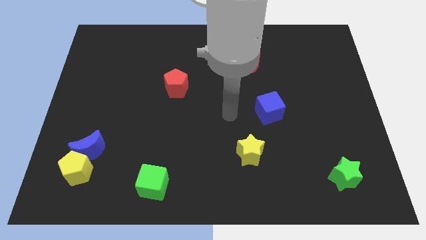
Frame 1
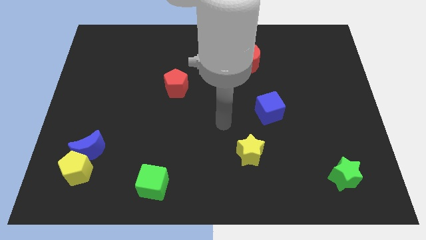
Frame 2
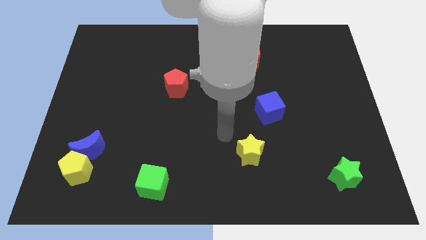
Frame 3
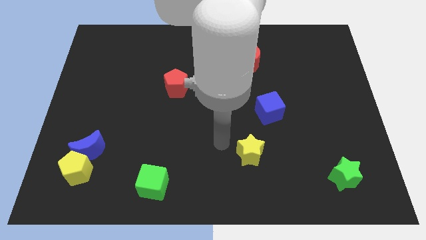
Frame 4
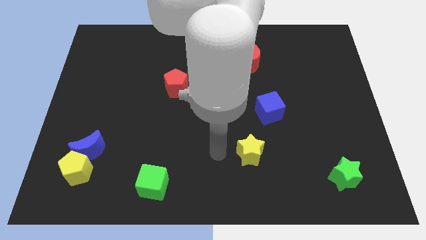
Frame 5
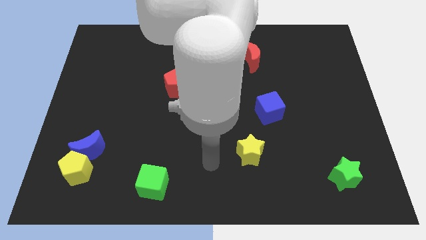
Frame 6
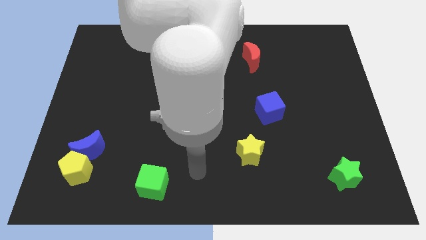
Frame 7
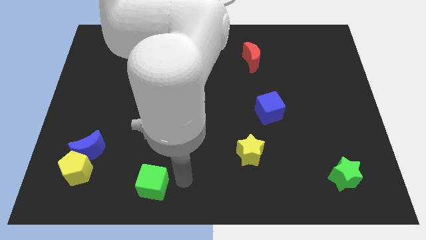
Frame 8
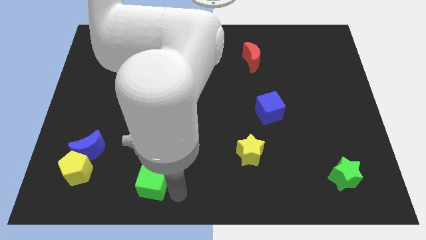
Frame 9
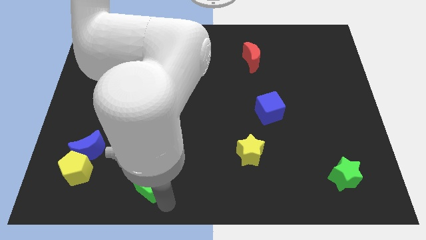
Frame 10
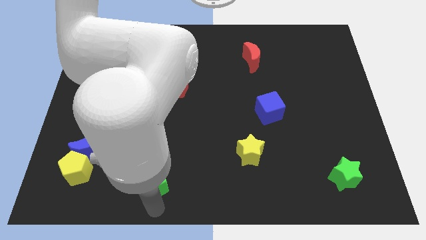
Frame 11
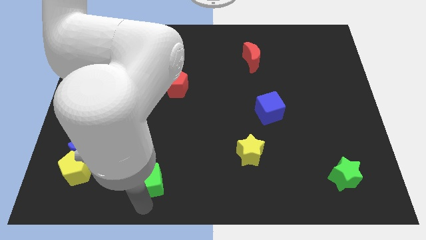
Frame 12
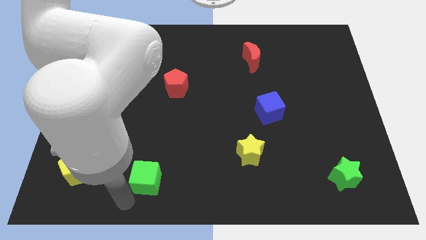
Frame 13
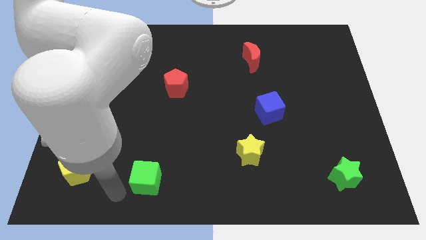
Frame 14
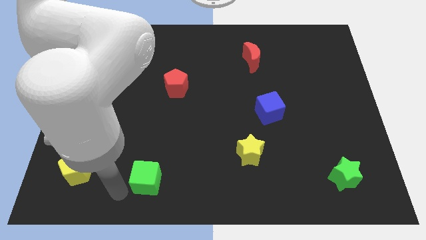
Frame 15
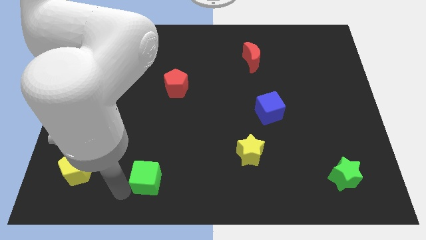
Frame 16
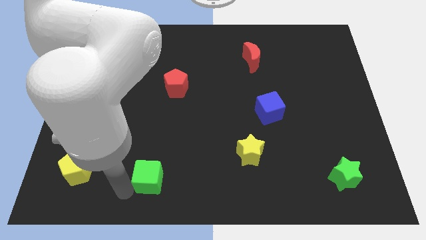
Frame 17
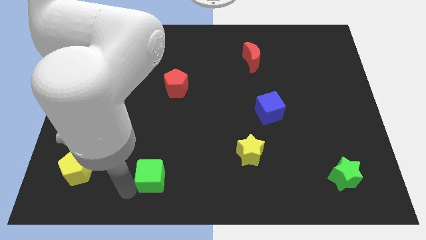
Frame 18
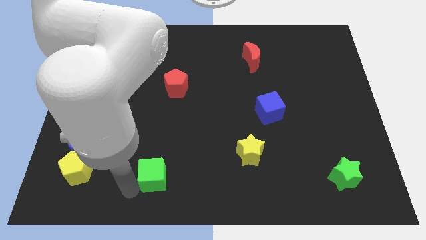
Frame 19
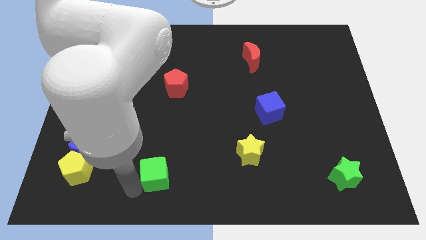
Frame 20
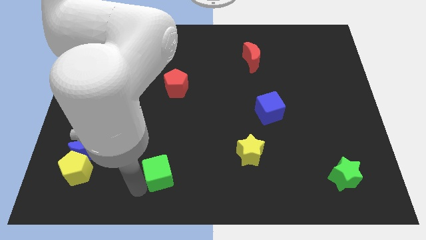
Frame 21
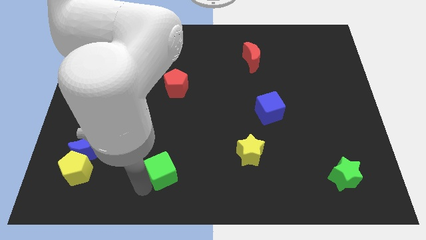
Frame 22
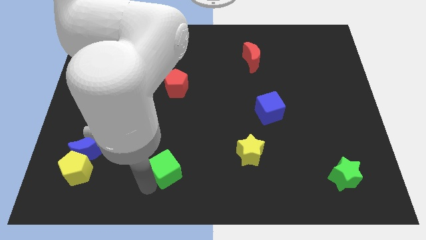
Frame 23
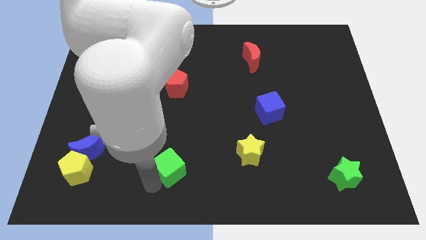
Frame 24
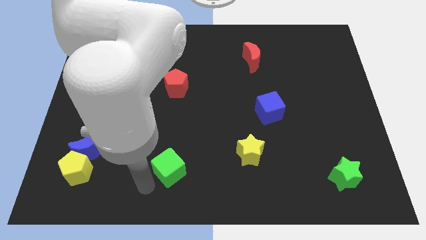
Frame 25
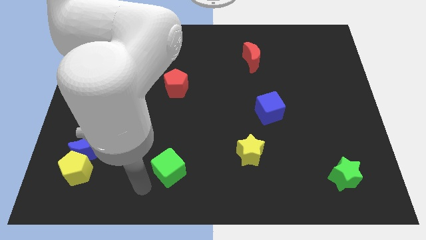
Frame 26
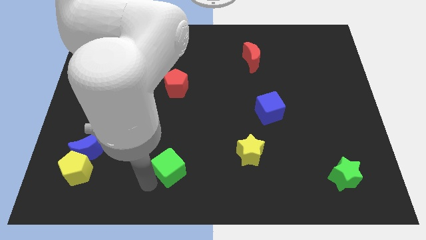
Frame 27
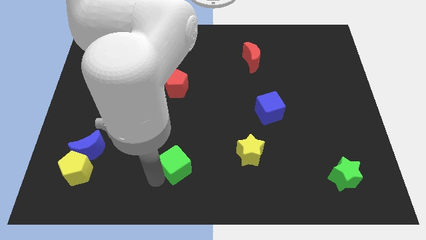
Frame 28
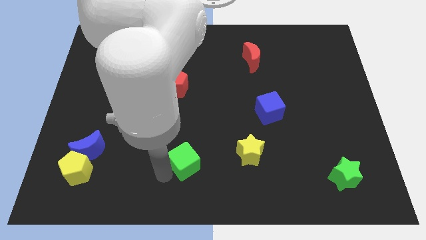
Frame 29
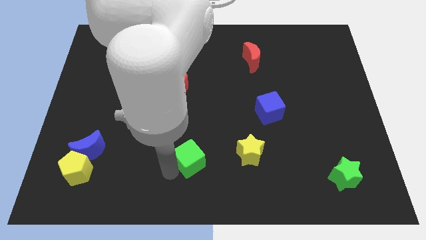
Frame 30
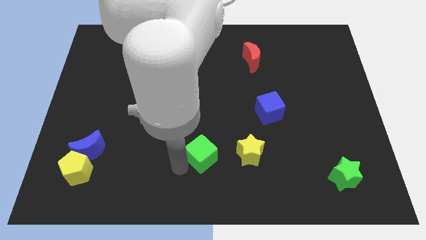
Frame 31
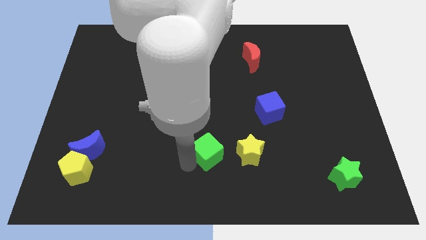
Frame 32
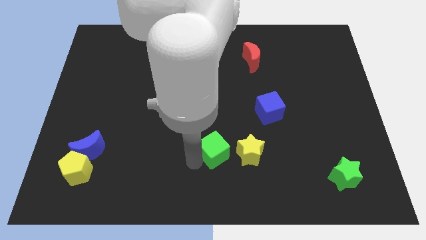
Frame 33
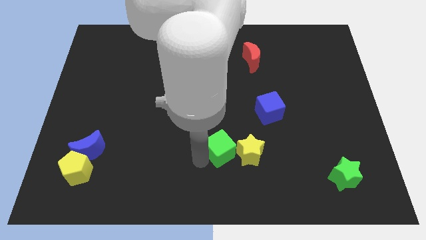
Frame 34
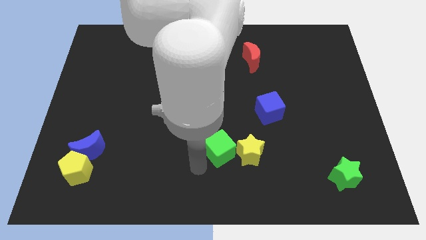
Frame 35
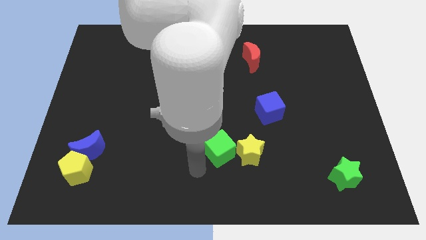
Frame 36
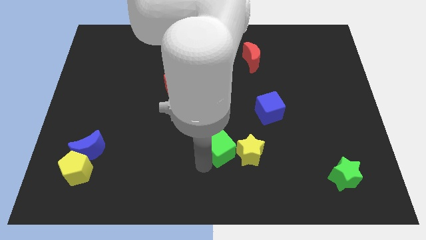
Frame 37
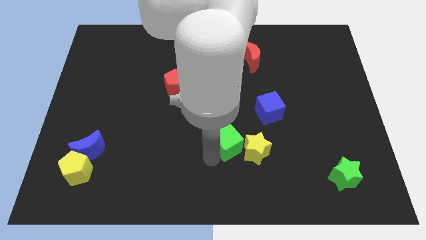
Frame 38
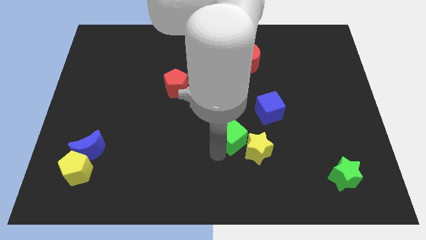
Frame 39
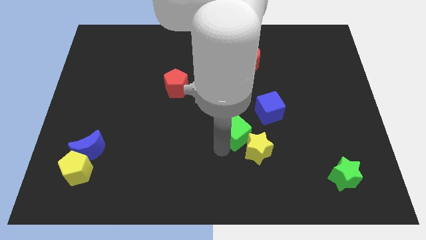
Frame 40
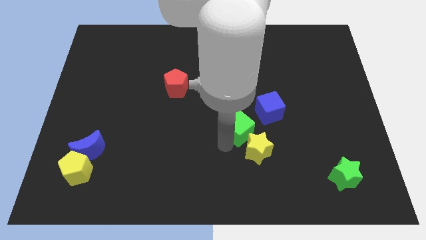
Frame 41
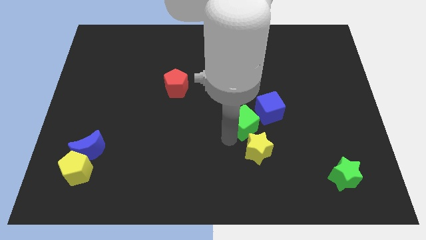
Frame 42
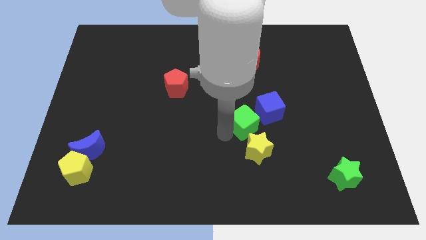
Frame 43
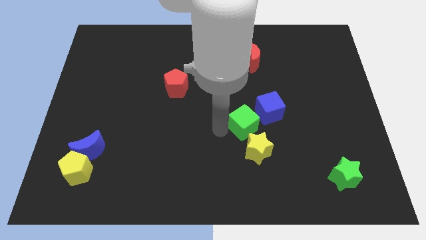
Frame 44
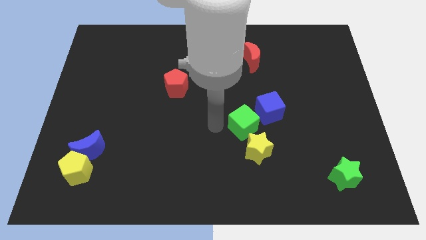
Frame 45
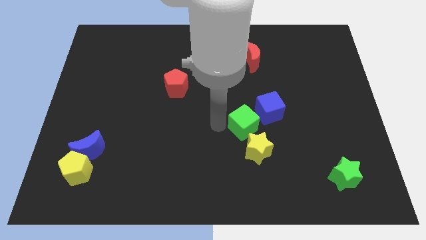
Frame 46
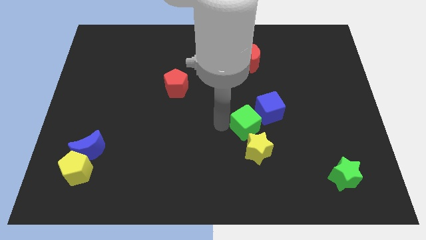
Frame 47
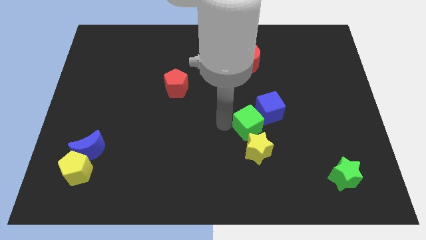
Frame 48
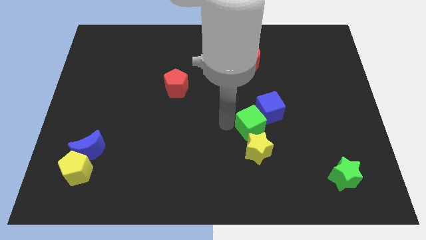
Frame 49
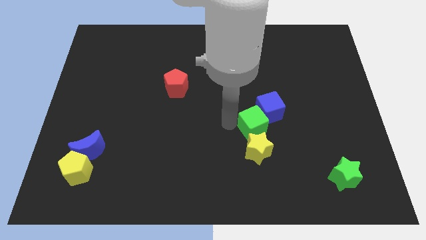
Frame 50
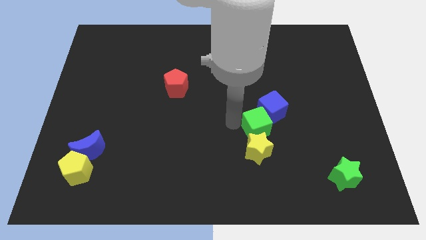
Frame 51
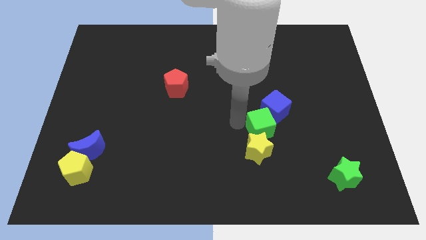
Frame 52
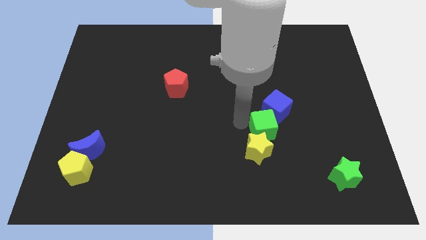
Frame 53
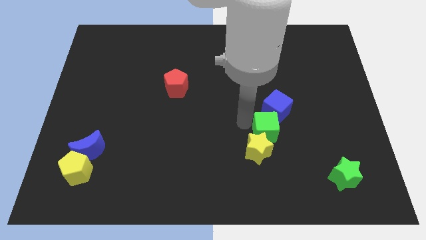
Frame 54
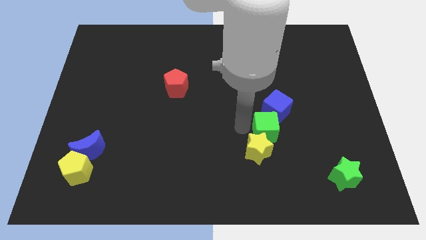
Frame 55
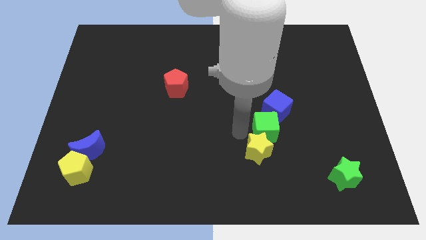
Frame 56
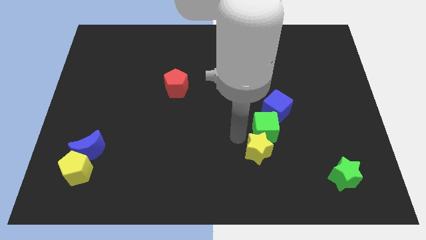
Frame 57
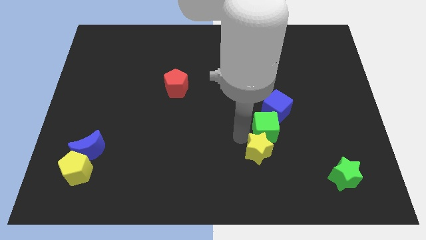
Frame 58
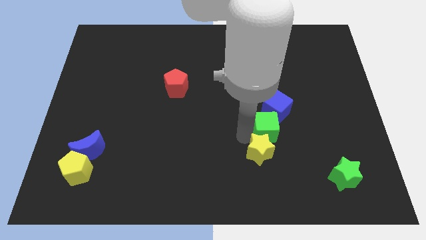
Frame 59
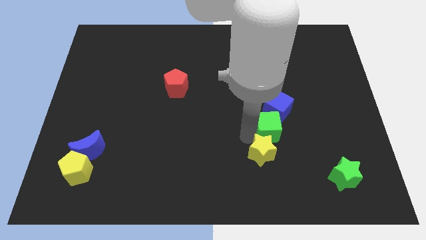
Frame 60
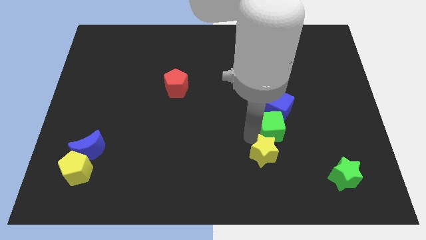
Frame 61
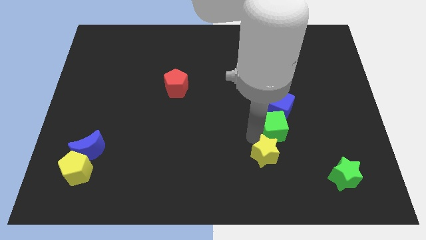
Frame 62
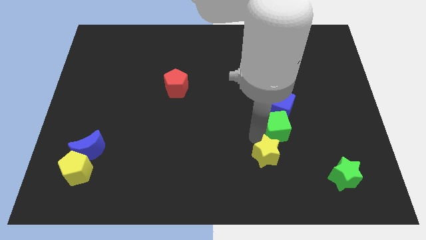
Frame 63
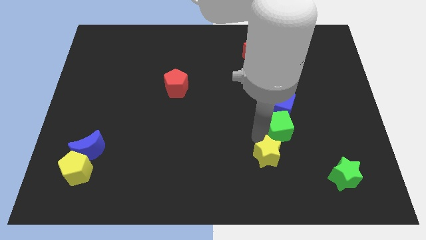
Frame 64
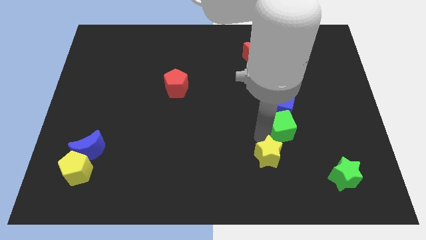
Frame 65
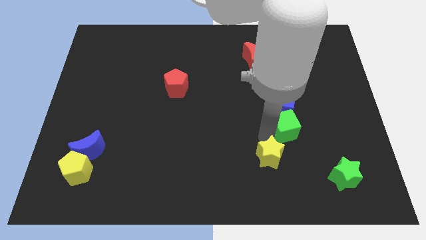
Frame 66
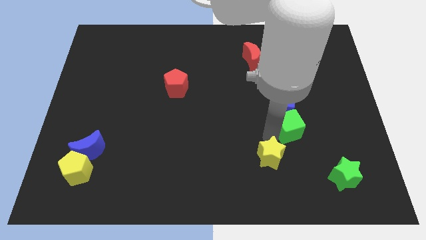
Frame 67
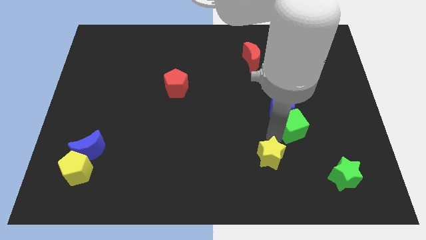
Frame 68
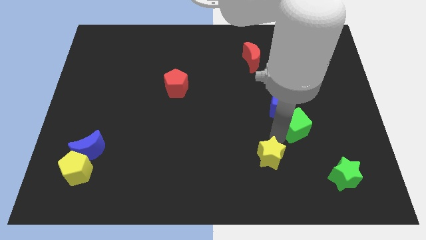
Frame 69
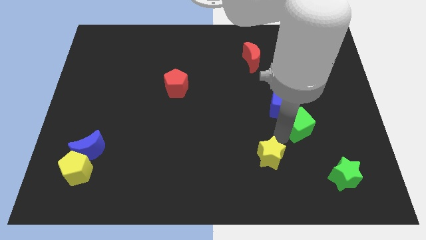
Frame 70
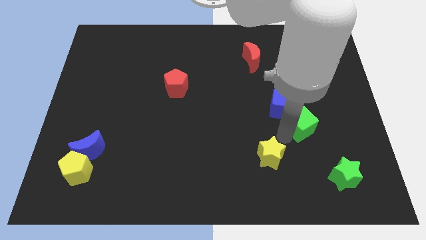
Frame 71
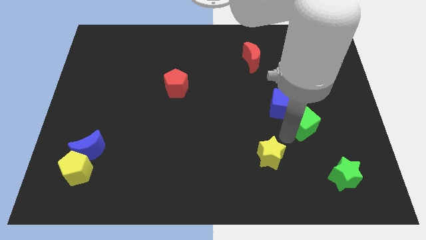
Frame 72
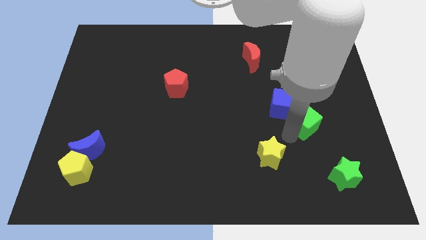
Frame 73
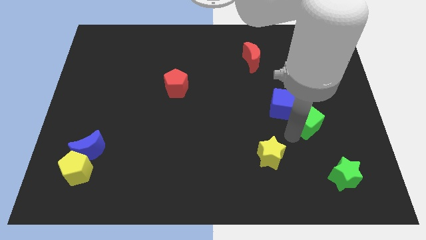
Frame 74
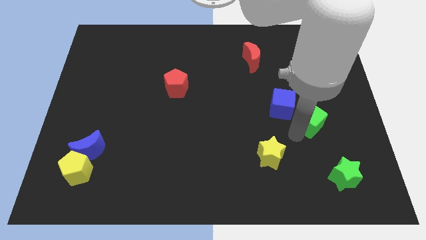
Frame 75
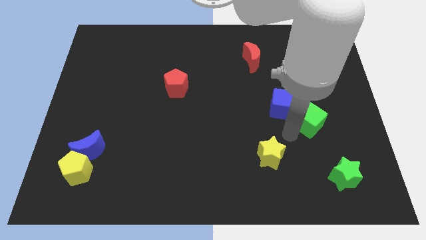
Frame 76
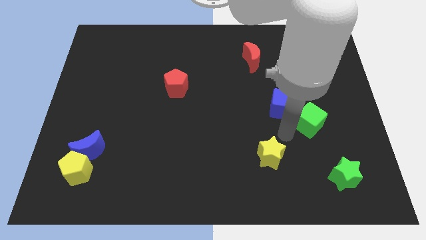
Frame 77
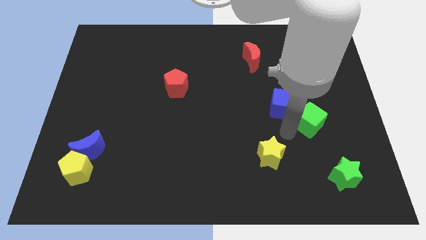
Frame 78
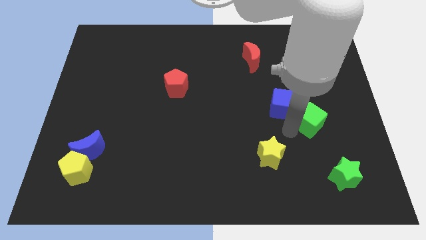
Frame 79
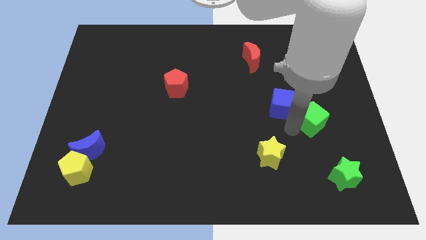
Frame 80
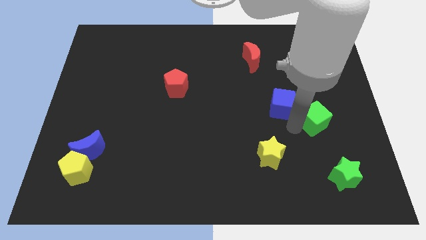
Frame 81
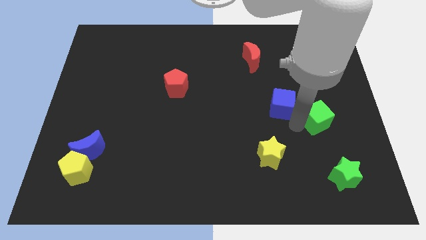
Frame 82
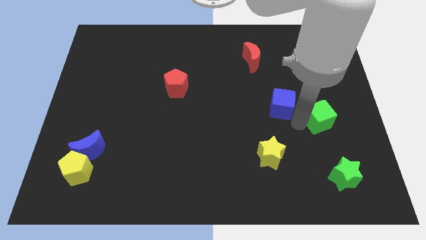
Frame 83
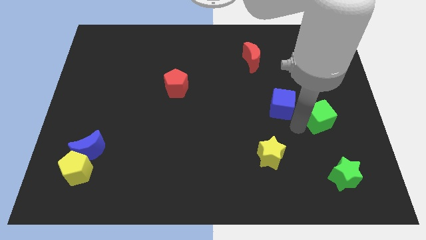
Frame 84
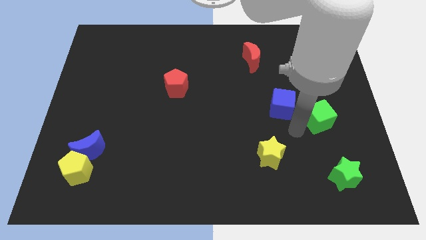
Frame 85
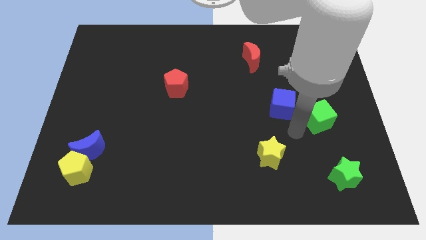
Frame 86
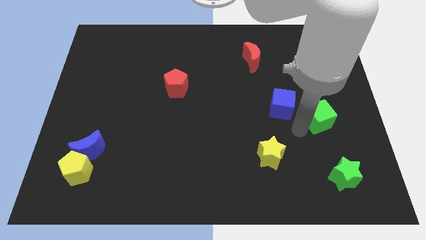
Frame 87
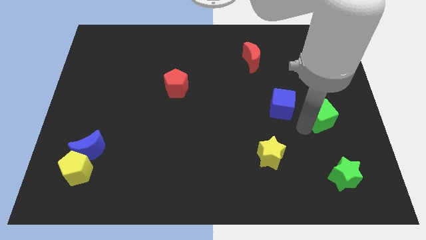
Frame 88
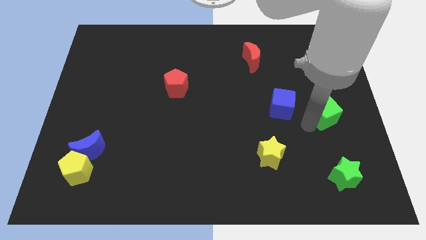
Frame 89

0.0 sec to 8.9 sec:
push the green cube to the right side of the board
